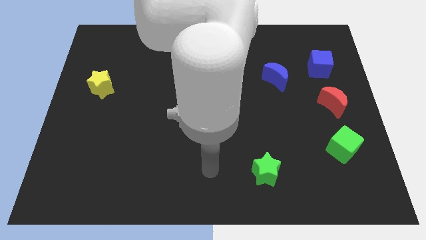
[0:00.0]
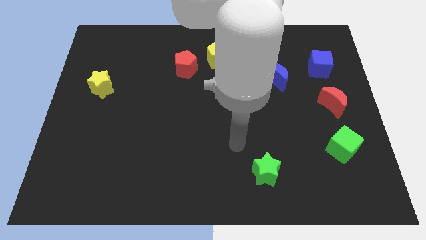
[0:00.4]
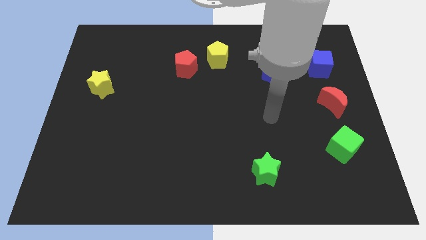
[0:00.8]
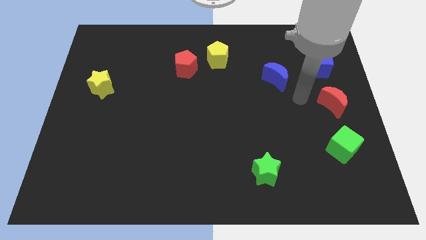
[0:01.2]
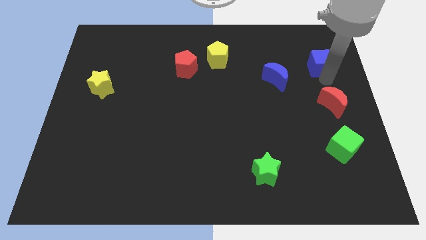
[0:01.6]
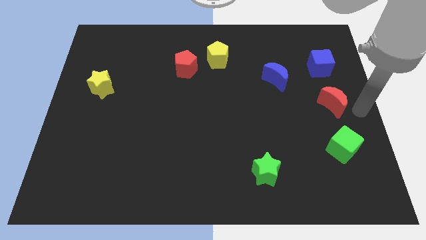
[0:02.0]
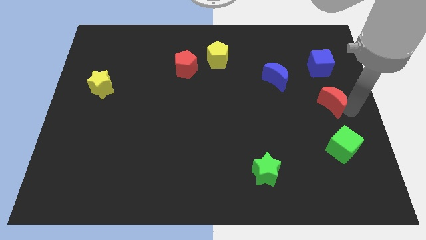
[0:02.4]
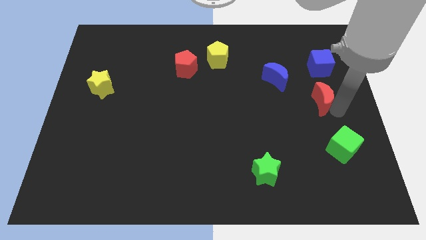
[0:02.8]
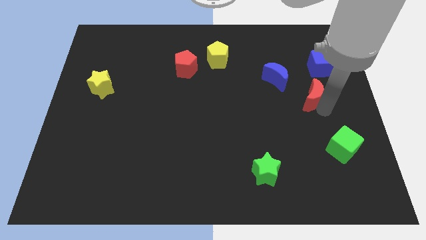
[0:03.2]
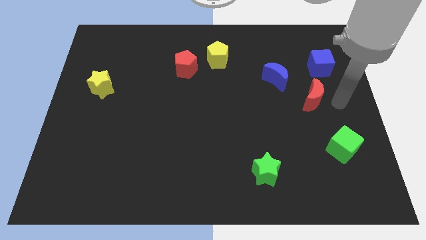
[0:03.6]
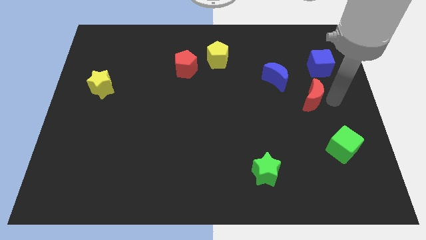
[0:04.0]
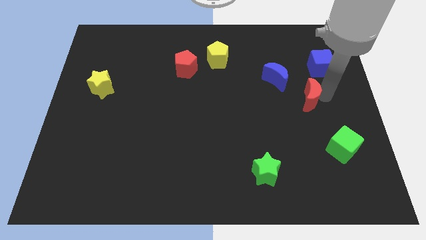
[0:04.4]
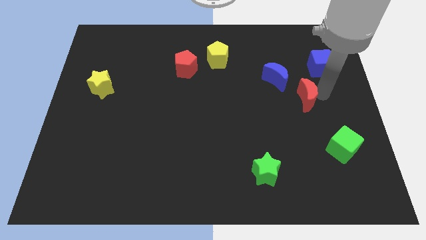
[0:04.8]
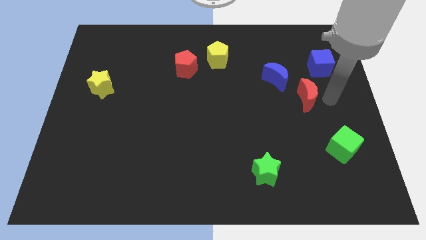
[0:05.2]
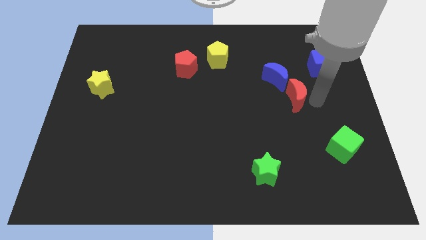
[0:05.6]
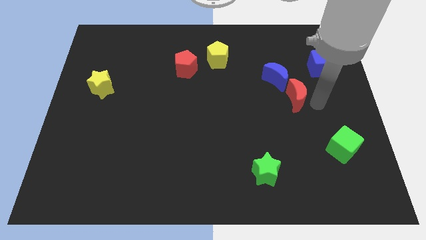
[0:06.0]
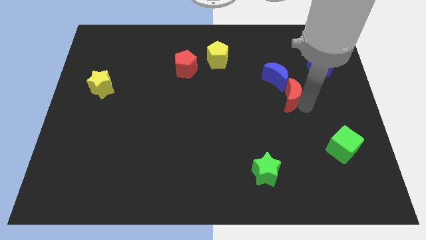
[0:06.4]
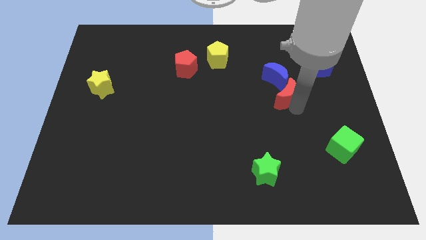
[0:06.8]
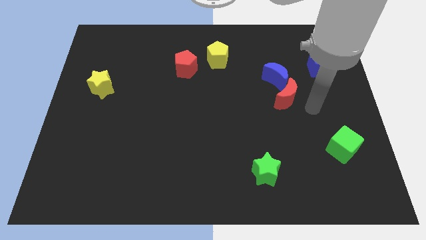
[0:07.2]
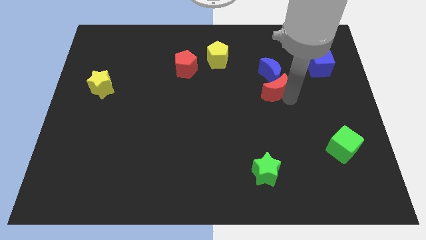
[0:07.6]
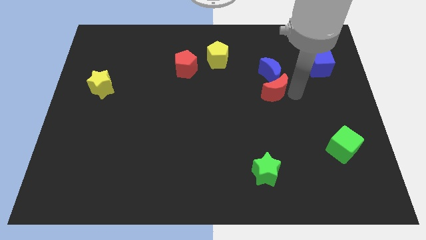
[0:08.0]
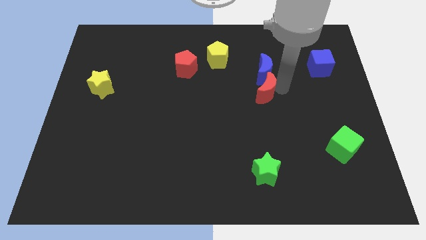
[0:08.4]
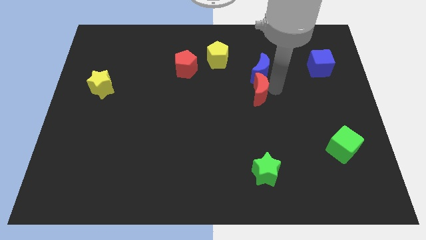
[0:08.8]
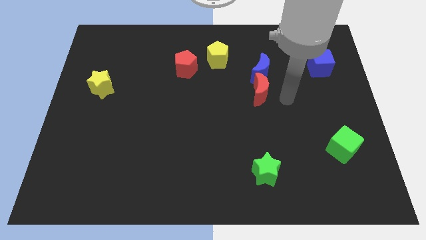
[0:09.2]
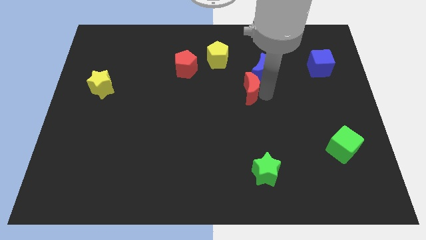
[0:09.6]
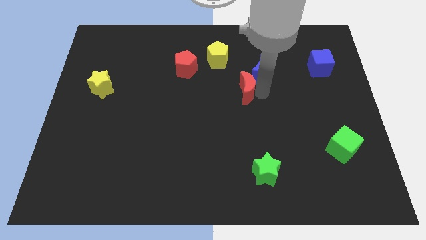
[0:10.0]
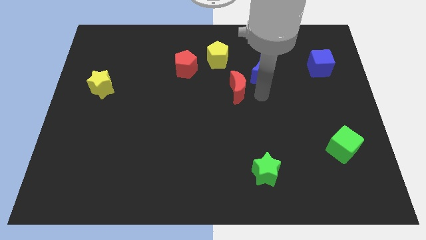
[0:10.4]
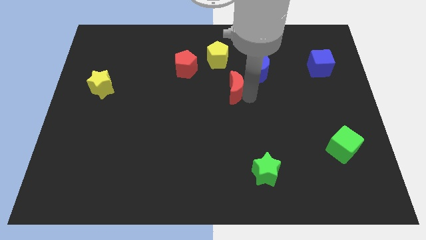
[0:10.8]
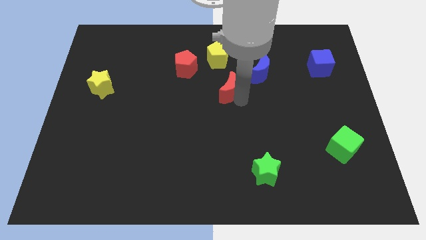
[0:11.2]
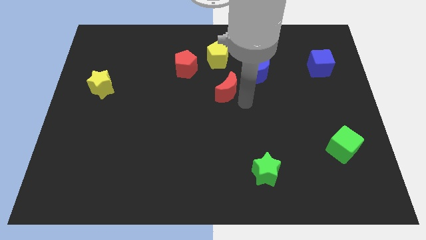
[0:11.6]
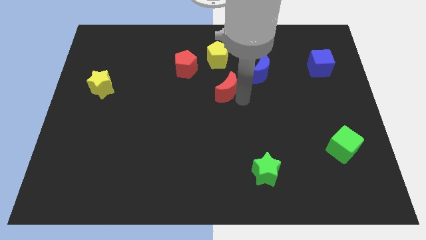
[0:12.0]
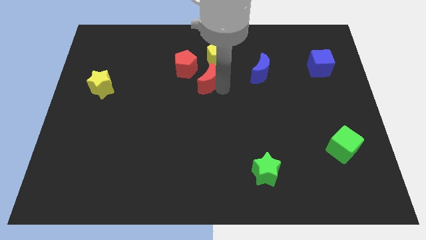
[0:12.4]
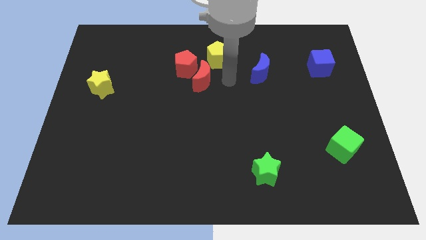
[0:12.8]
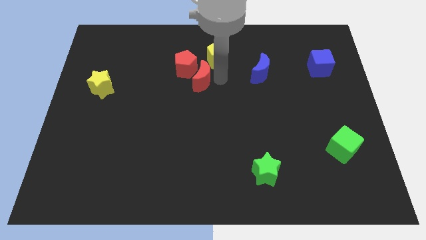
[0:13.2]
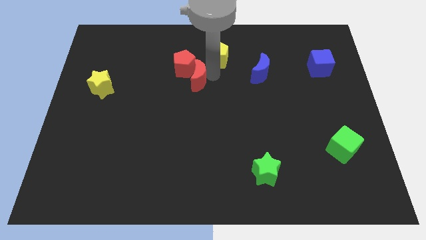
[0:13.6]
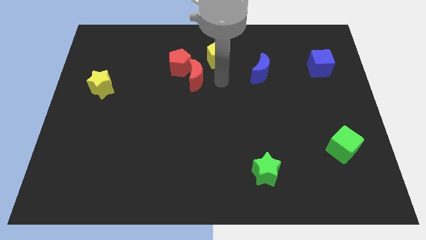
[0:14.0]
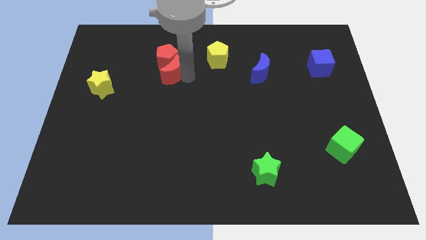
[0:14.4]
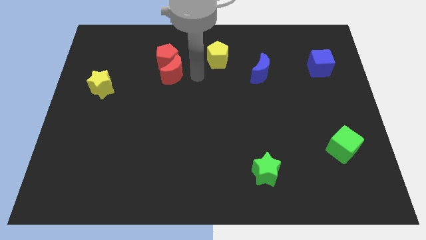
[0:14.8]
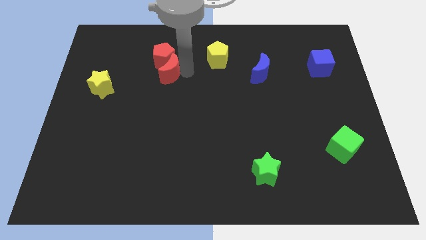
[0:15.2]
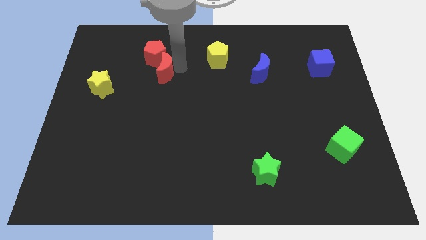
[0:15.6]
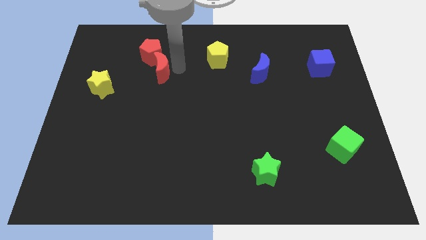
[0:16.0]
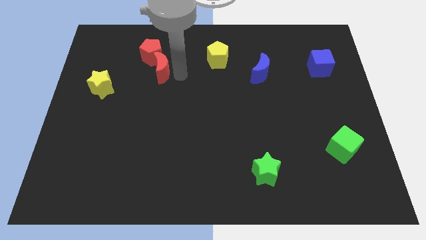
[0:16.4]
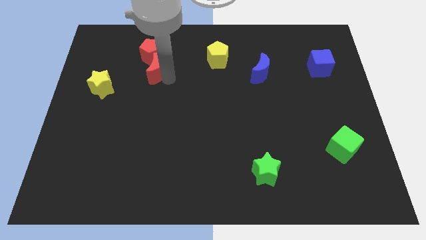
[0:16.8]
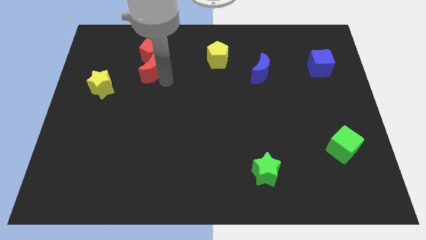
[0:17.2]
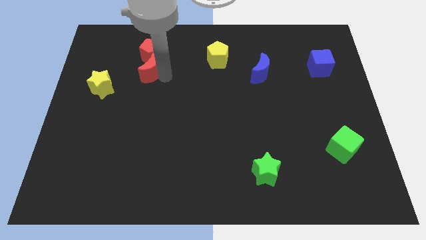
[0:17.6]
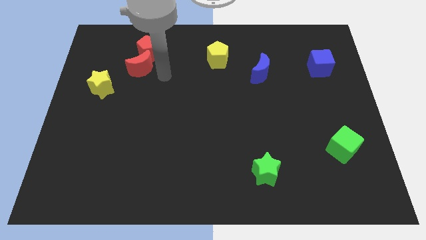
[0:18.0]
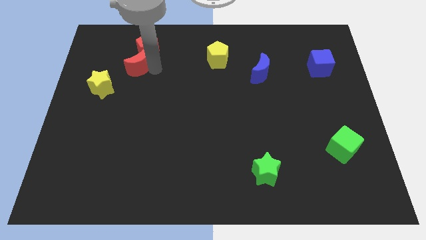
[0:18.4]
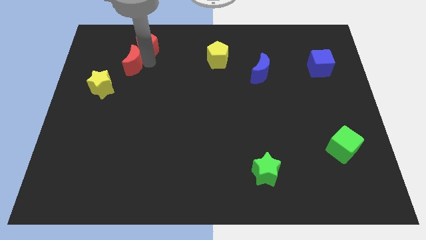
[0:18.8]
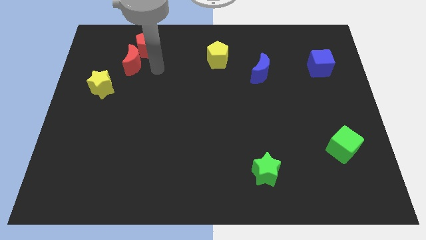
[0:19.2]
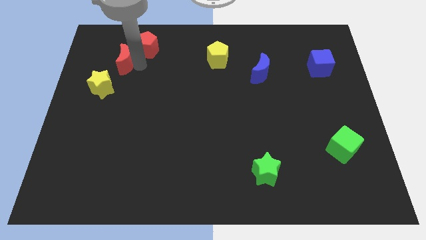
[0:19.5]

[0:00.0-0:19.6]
move the red moon to the top side of the yellow star

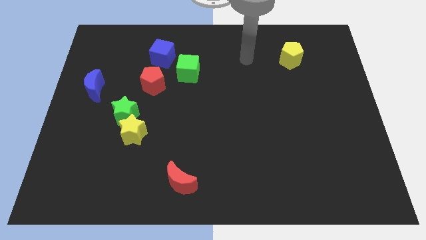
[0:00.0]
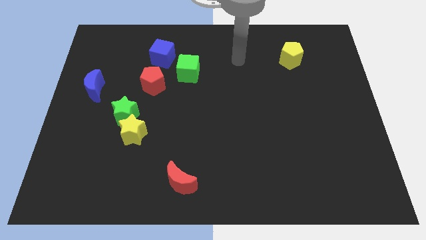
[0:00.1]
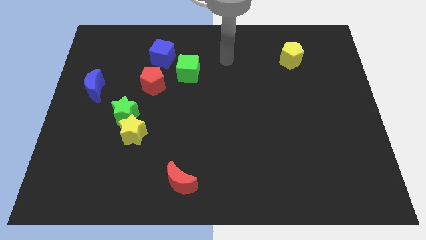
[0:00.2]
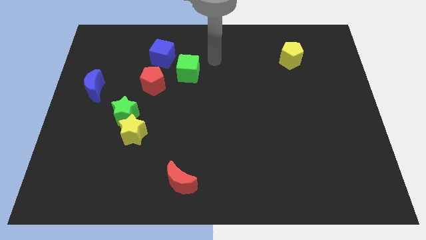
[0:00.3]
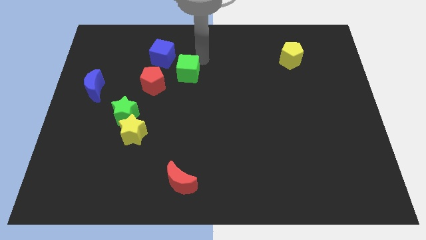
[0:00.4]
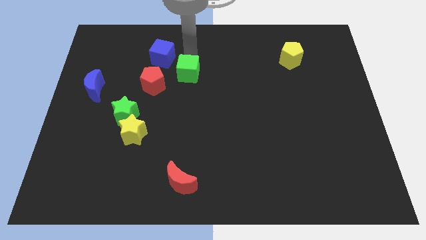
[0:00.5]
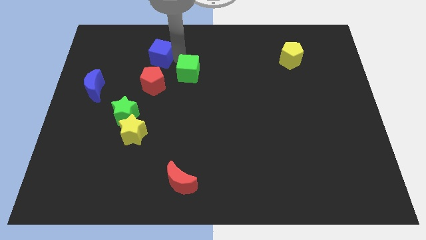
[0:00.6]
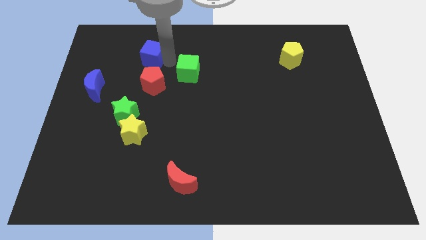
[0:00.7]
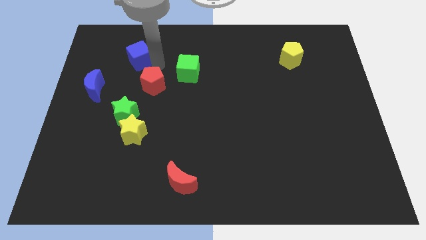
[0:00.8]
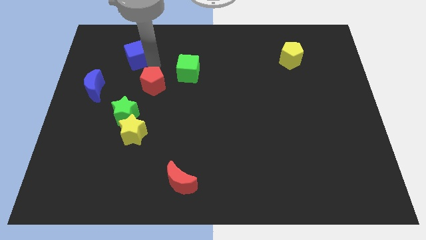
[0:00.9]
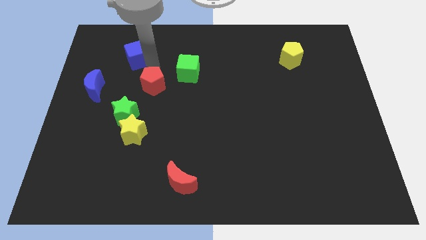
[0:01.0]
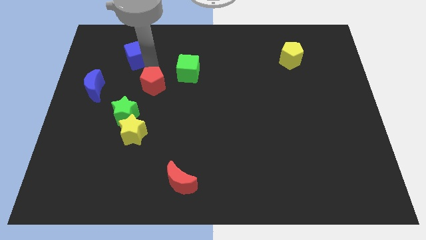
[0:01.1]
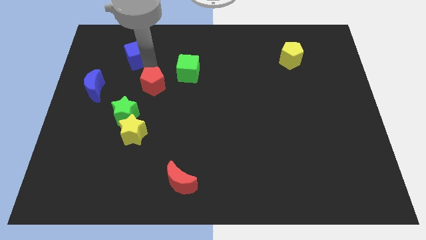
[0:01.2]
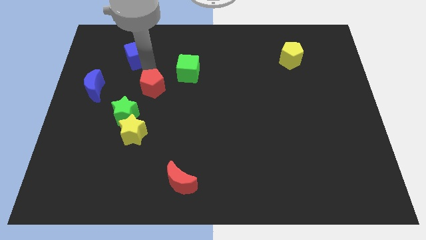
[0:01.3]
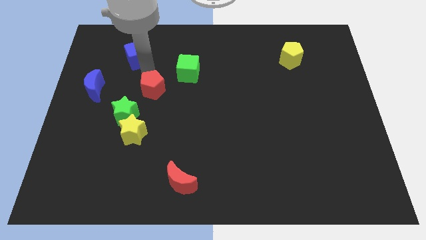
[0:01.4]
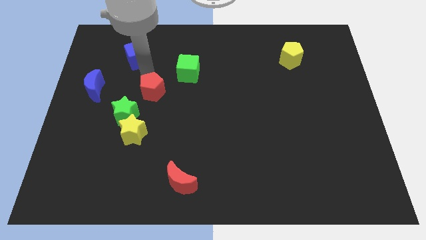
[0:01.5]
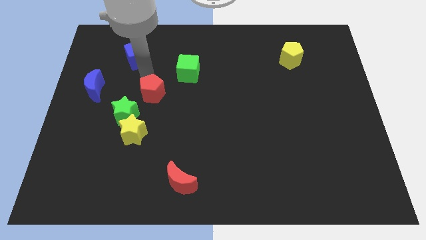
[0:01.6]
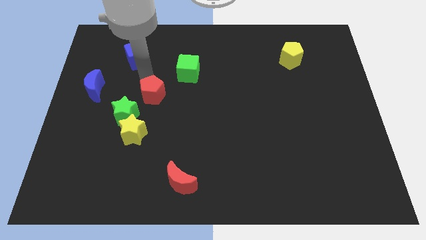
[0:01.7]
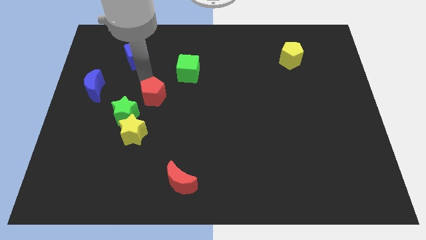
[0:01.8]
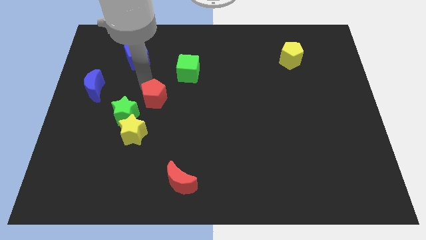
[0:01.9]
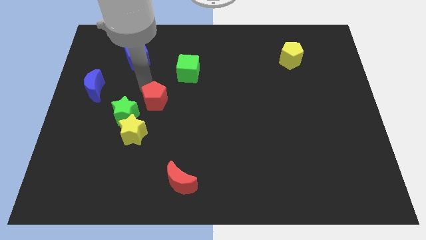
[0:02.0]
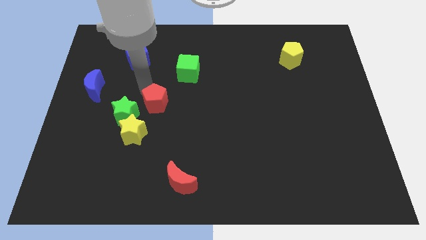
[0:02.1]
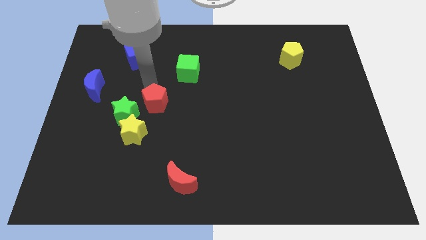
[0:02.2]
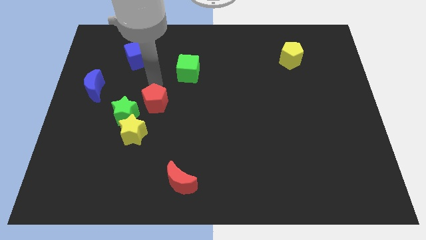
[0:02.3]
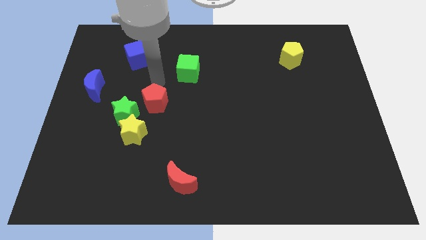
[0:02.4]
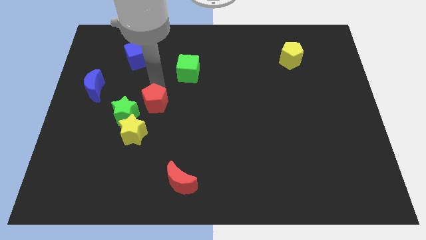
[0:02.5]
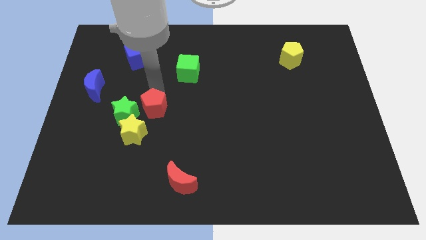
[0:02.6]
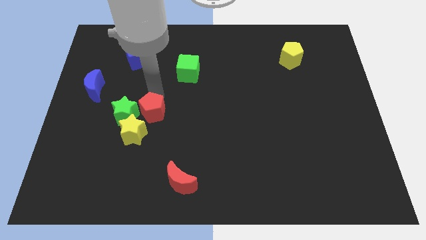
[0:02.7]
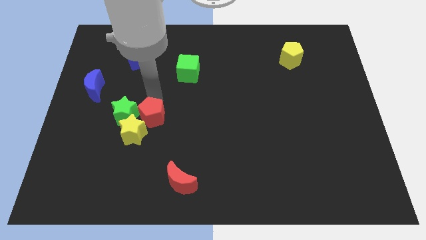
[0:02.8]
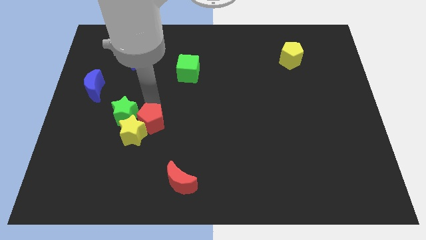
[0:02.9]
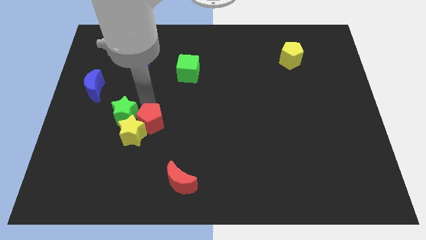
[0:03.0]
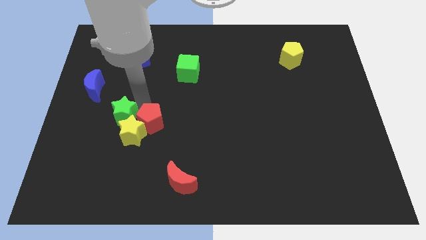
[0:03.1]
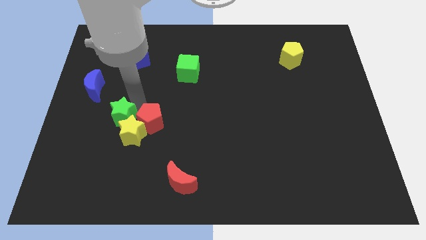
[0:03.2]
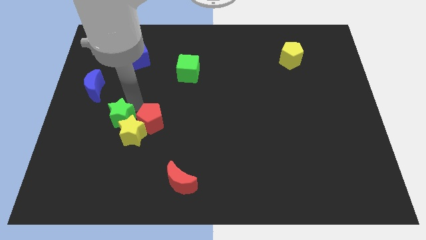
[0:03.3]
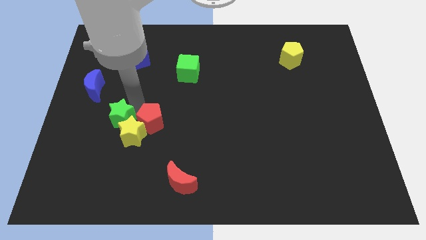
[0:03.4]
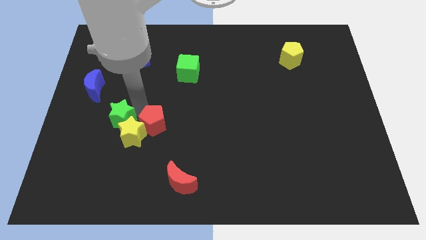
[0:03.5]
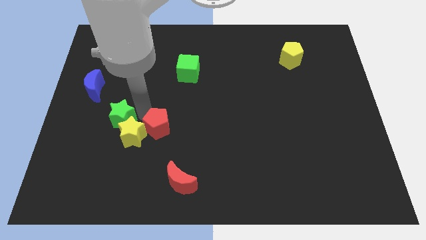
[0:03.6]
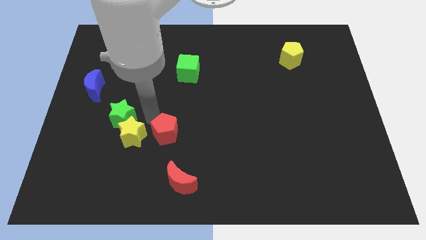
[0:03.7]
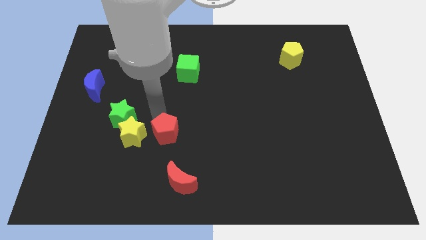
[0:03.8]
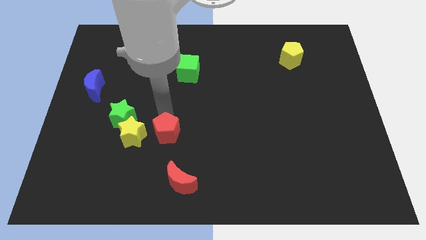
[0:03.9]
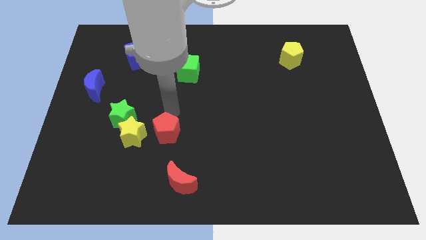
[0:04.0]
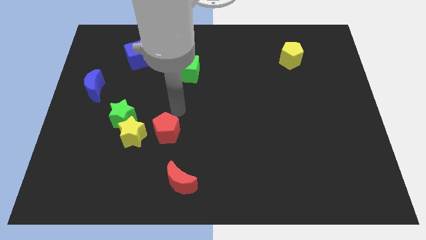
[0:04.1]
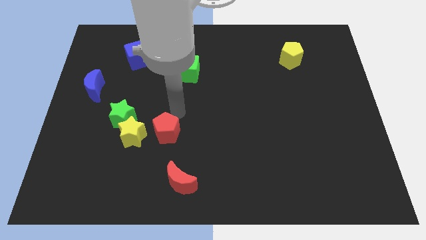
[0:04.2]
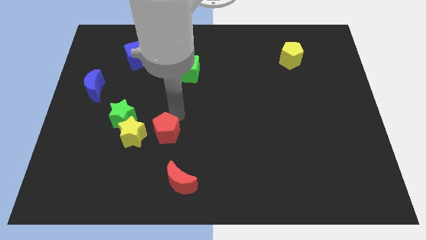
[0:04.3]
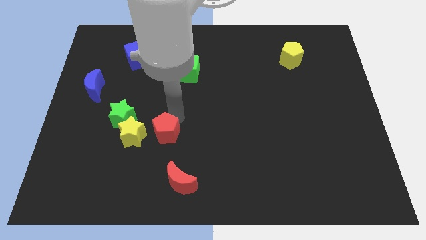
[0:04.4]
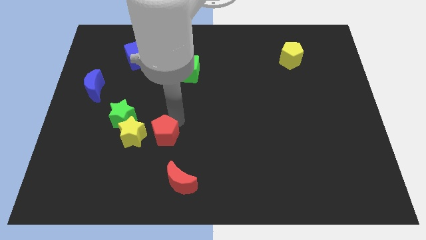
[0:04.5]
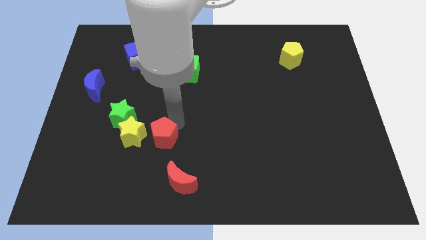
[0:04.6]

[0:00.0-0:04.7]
move the red pentagon diagonally down and to the right of the yellow star
